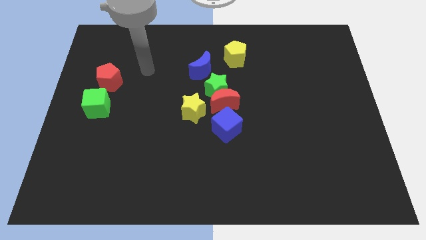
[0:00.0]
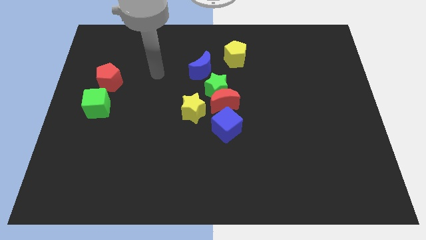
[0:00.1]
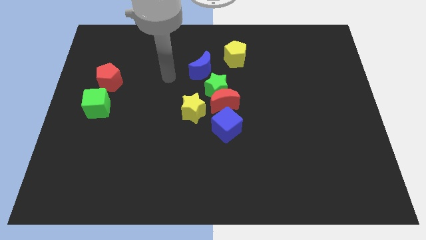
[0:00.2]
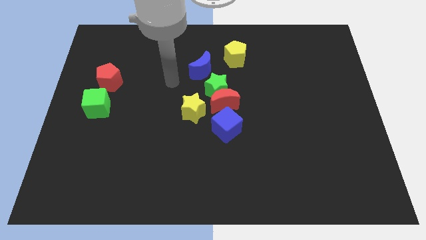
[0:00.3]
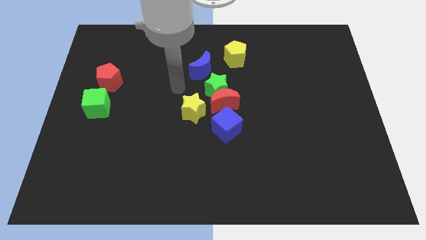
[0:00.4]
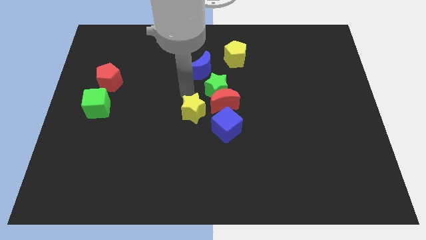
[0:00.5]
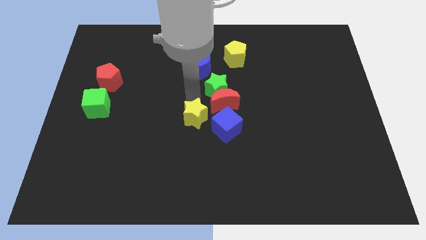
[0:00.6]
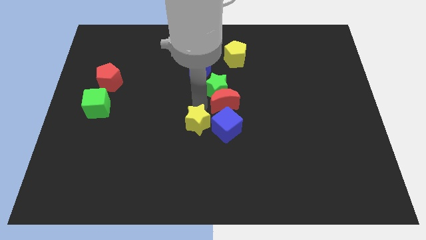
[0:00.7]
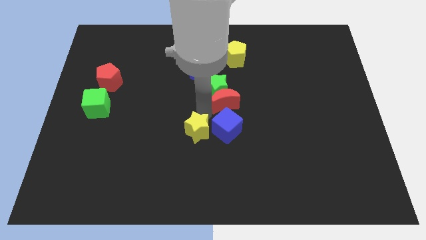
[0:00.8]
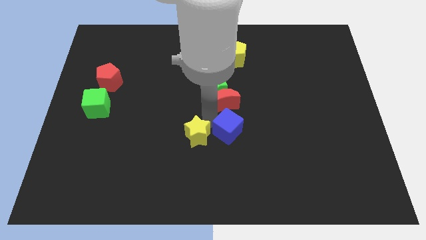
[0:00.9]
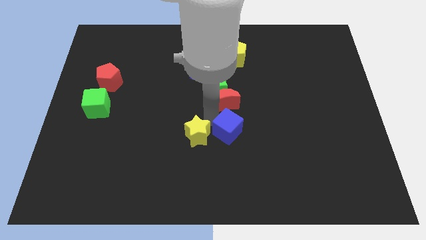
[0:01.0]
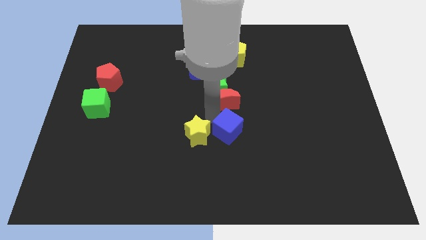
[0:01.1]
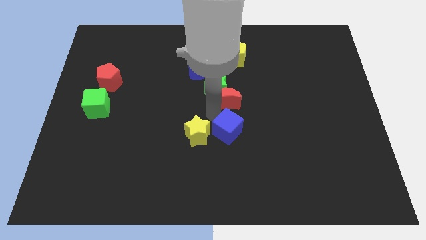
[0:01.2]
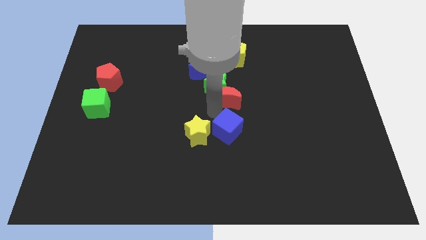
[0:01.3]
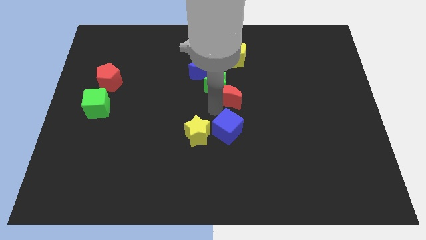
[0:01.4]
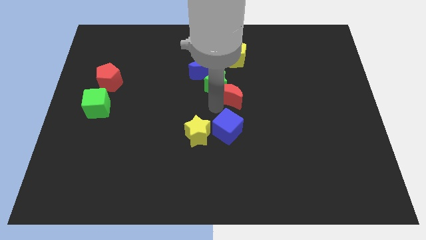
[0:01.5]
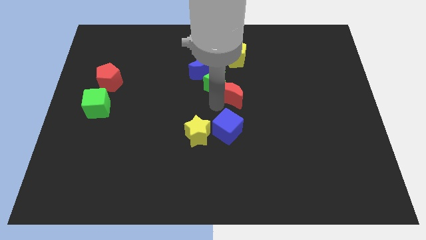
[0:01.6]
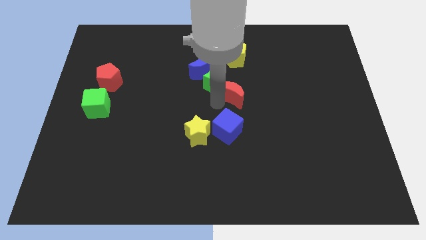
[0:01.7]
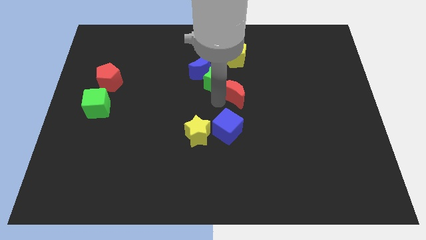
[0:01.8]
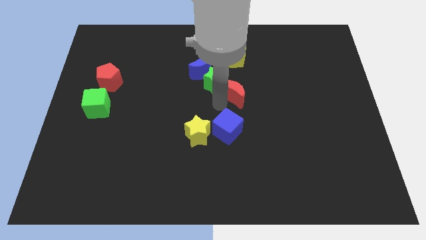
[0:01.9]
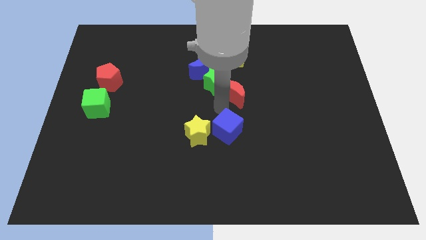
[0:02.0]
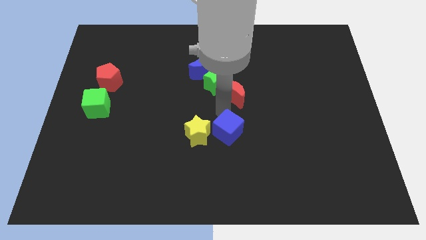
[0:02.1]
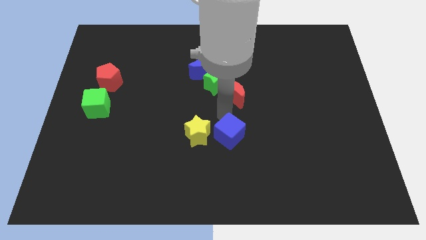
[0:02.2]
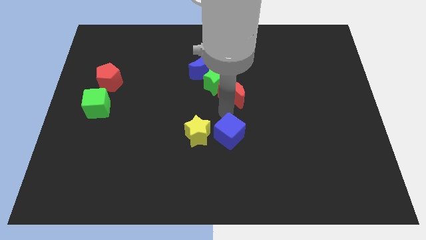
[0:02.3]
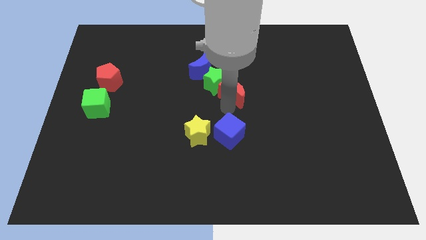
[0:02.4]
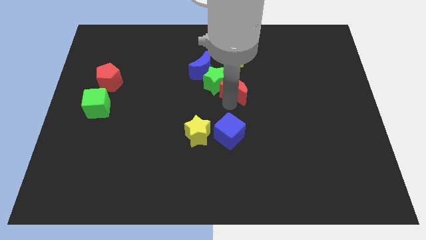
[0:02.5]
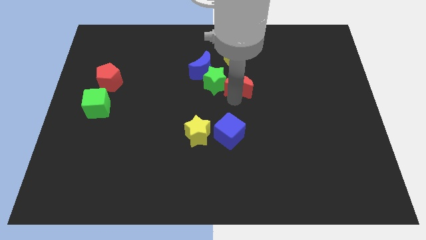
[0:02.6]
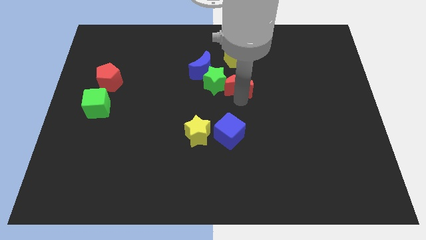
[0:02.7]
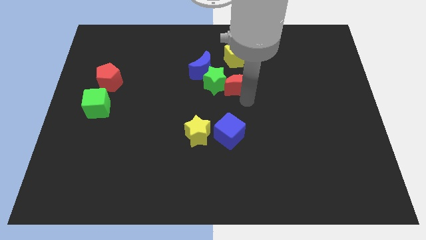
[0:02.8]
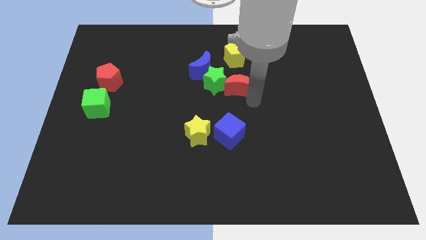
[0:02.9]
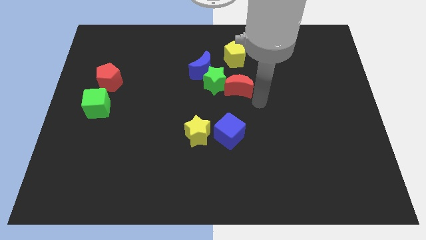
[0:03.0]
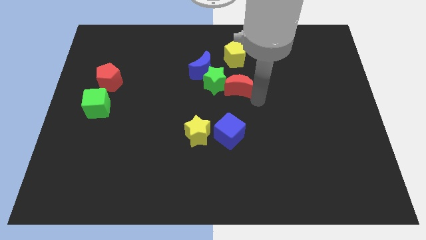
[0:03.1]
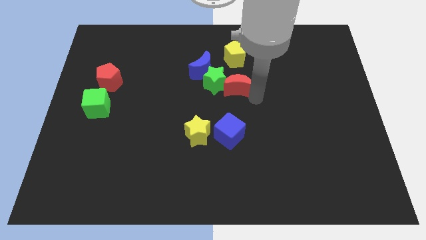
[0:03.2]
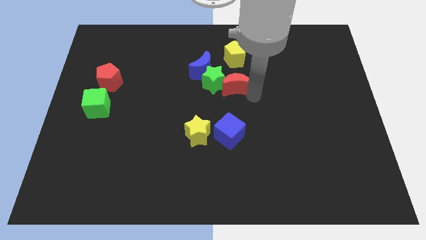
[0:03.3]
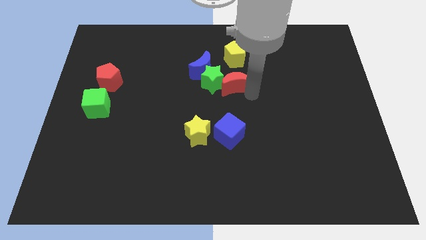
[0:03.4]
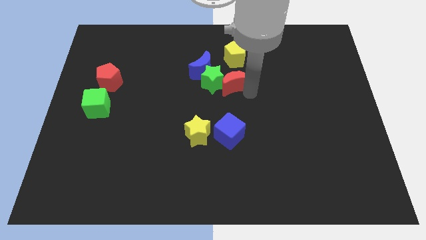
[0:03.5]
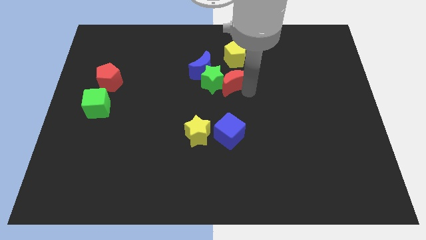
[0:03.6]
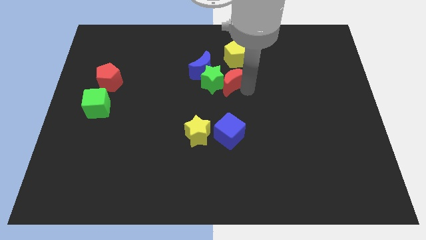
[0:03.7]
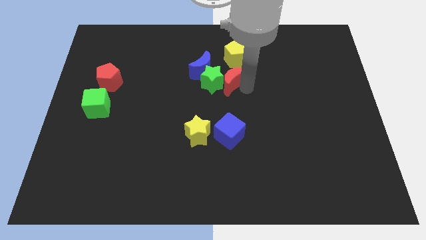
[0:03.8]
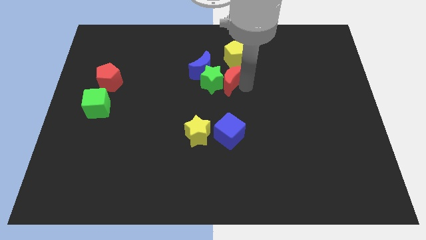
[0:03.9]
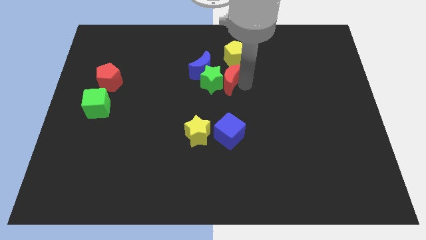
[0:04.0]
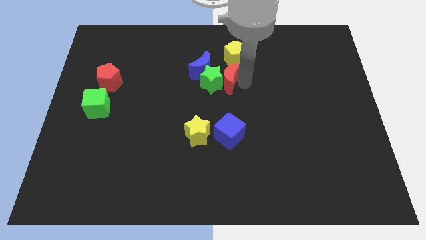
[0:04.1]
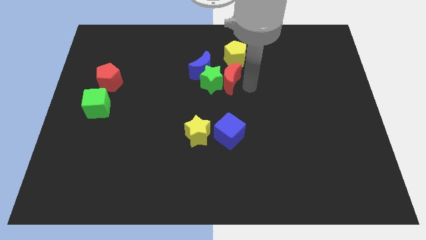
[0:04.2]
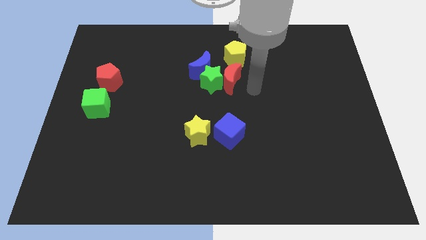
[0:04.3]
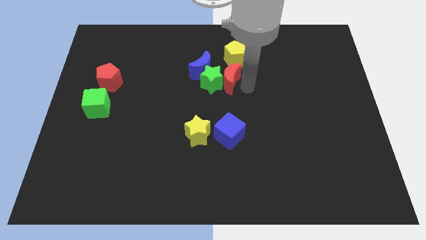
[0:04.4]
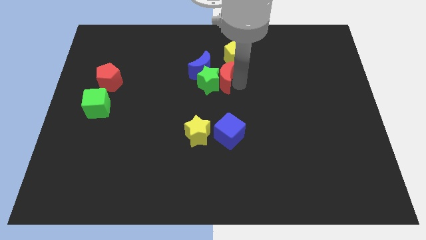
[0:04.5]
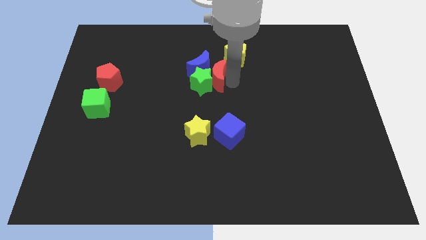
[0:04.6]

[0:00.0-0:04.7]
move the red moon close to the blue moon

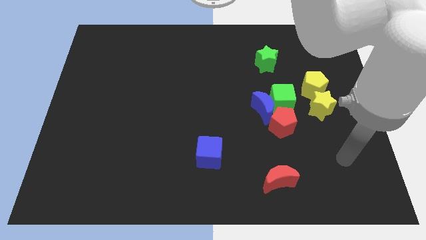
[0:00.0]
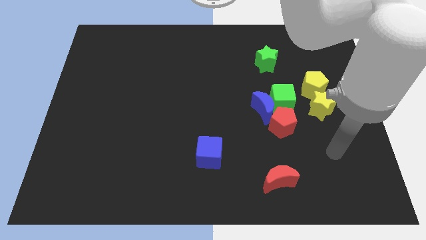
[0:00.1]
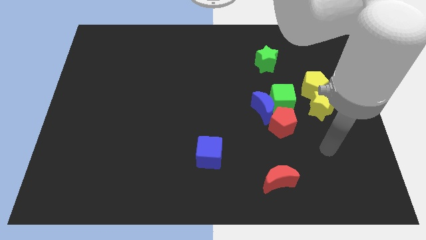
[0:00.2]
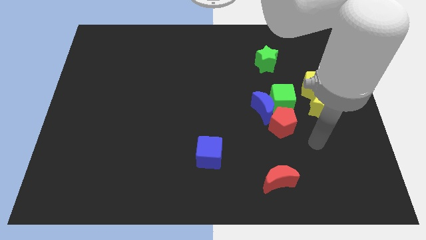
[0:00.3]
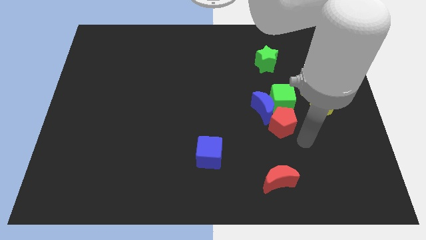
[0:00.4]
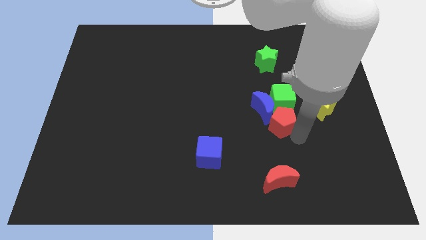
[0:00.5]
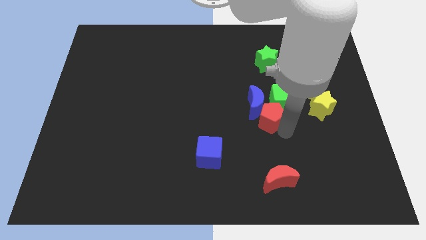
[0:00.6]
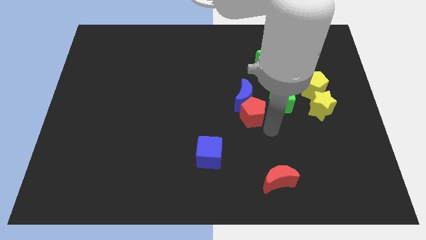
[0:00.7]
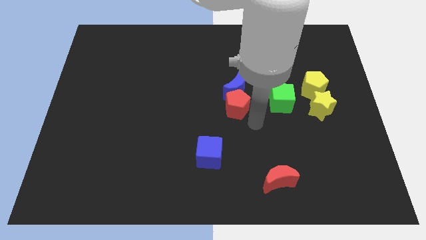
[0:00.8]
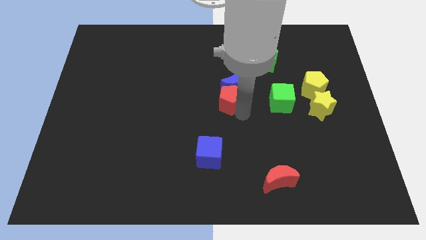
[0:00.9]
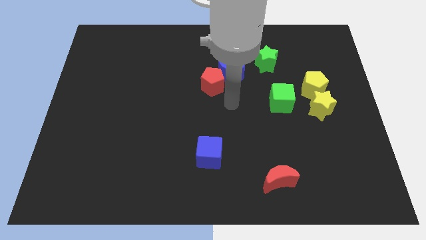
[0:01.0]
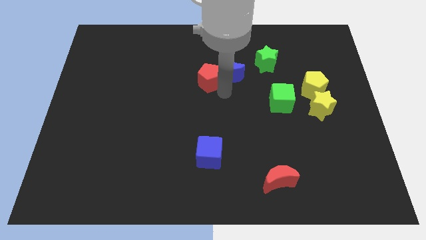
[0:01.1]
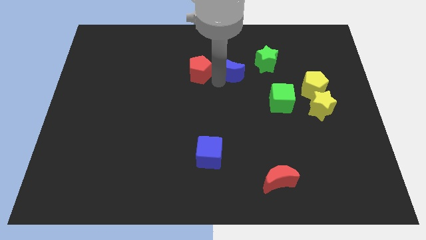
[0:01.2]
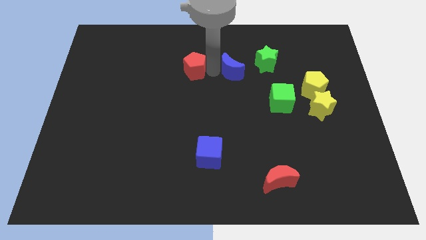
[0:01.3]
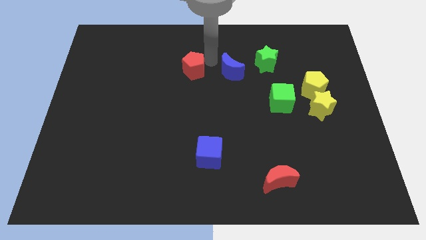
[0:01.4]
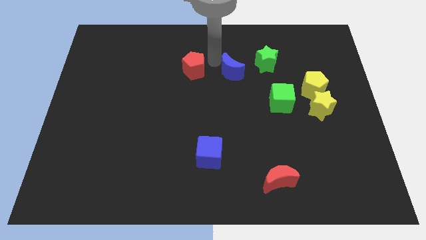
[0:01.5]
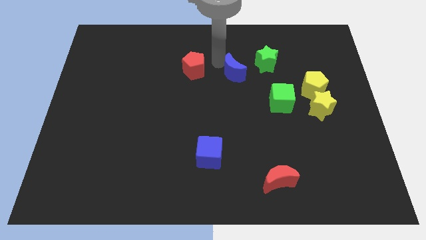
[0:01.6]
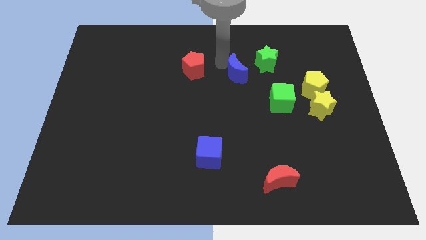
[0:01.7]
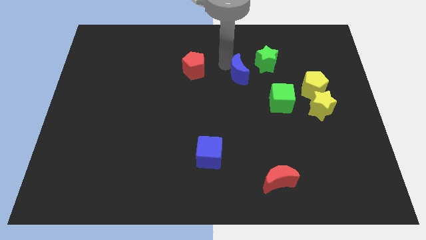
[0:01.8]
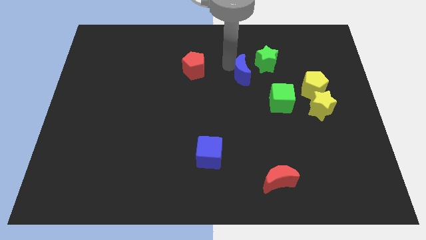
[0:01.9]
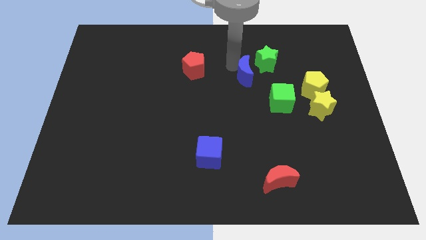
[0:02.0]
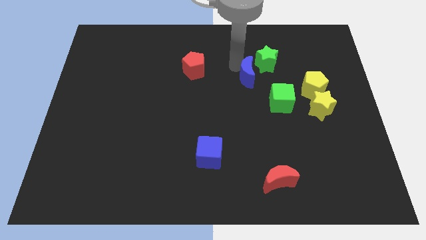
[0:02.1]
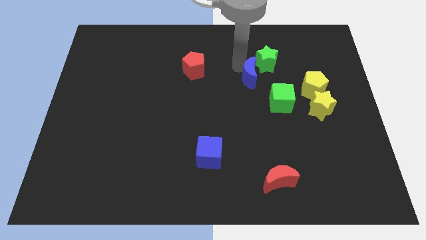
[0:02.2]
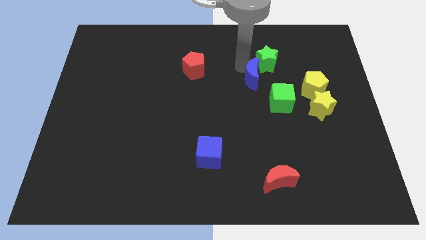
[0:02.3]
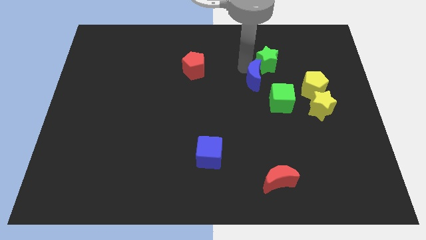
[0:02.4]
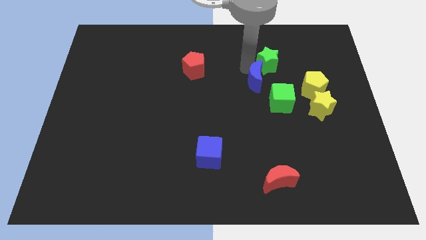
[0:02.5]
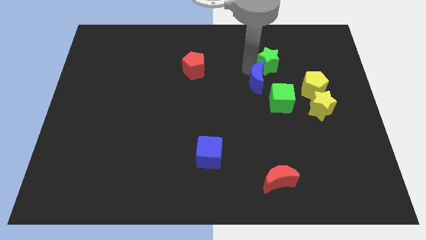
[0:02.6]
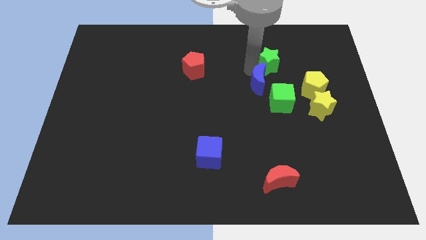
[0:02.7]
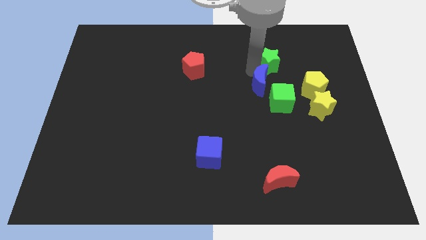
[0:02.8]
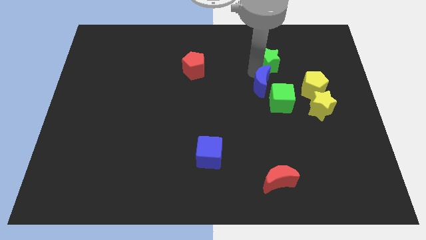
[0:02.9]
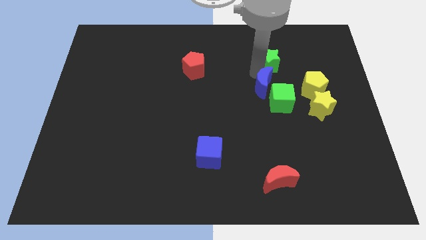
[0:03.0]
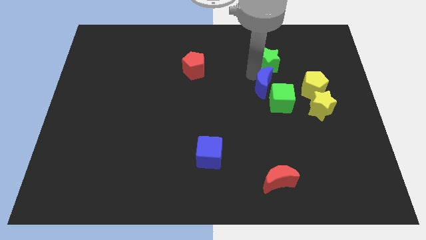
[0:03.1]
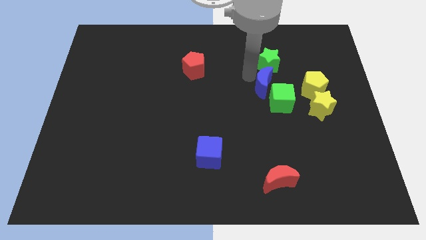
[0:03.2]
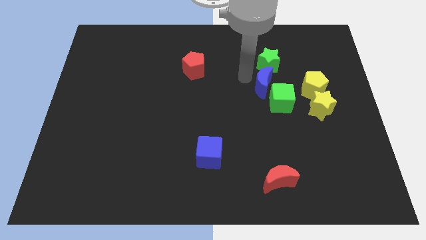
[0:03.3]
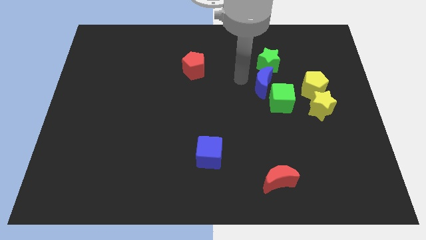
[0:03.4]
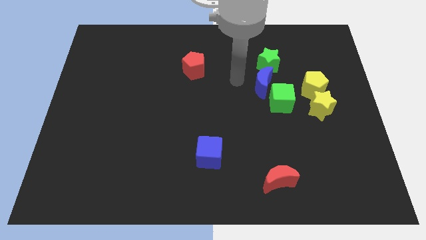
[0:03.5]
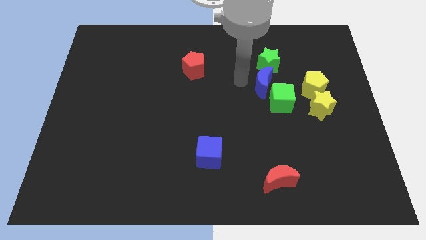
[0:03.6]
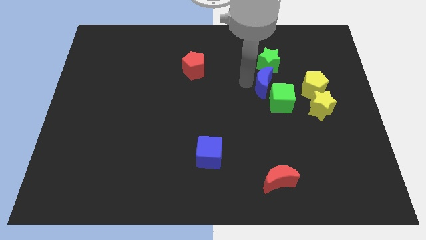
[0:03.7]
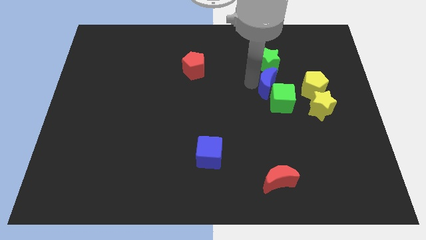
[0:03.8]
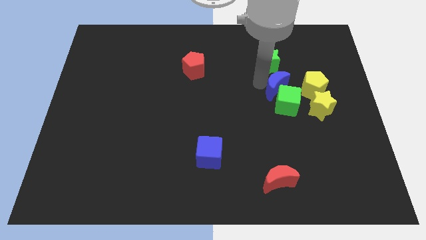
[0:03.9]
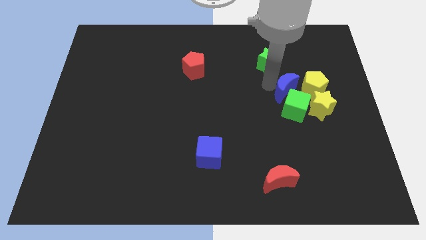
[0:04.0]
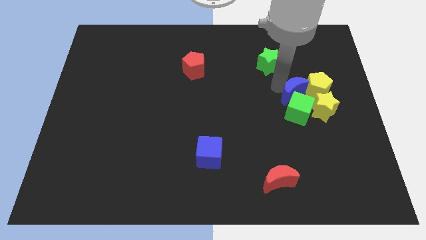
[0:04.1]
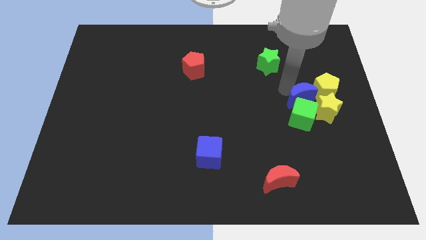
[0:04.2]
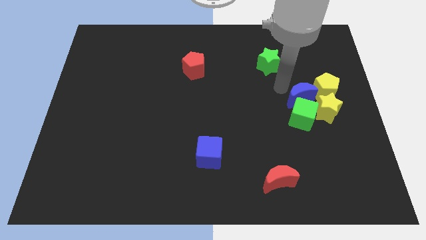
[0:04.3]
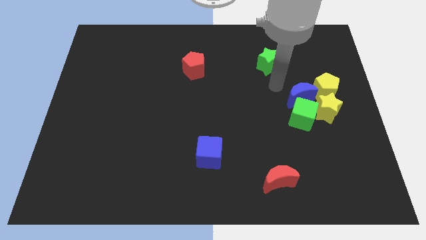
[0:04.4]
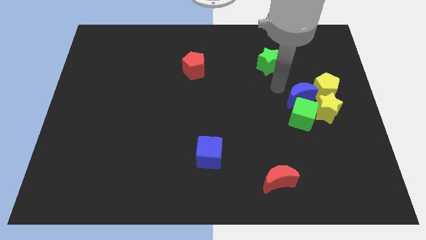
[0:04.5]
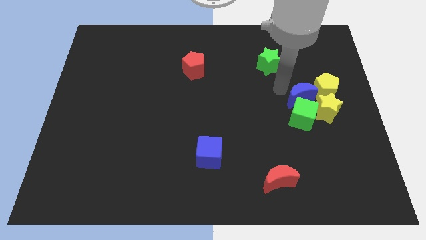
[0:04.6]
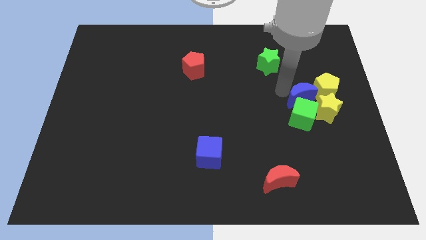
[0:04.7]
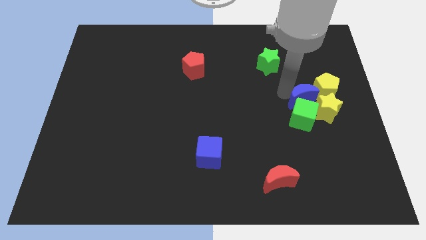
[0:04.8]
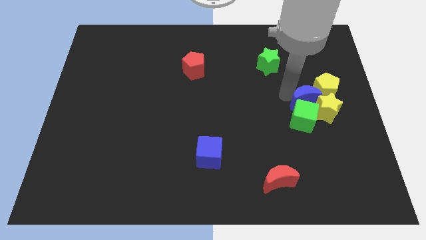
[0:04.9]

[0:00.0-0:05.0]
slide the blue moon towards the yellow star
